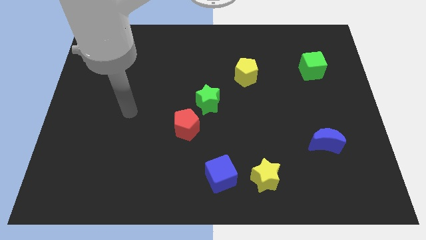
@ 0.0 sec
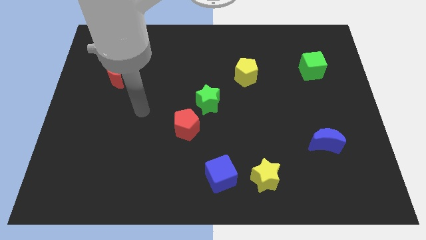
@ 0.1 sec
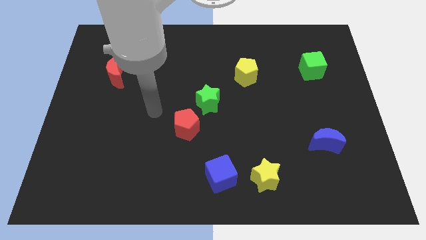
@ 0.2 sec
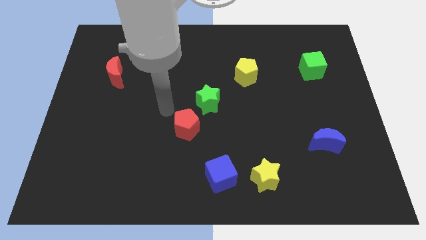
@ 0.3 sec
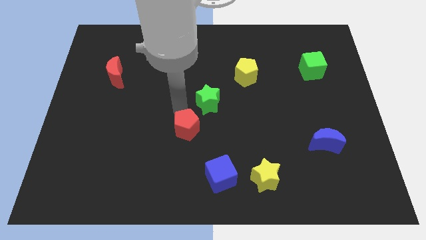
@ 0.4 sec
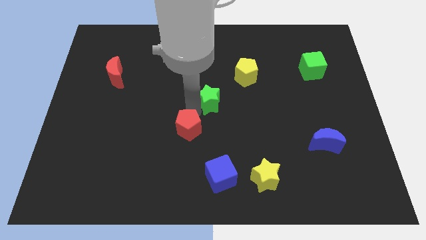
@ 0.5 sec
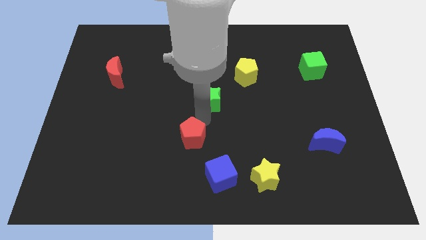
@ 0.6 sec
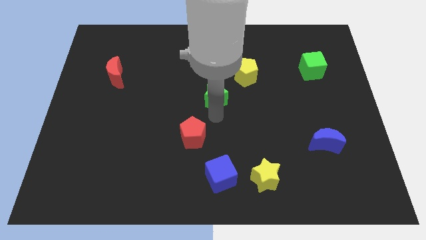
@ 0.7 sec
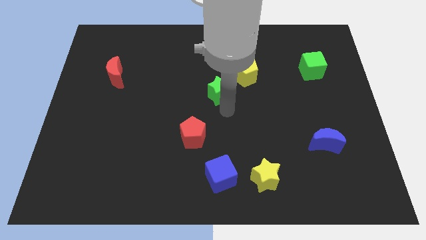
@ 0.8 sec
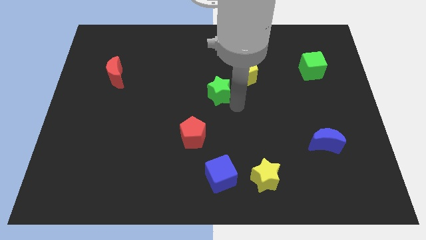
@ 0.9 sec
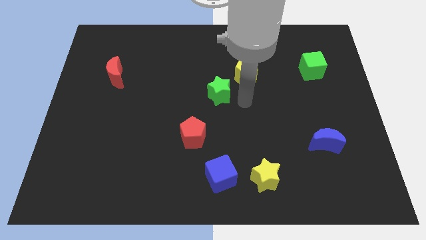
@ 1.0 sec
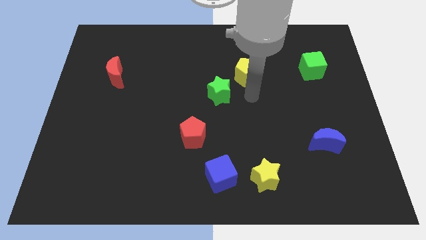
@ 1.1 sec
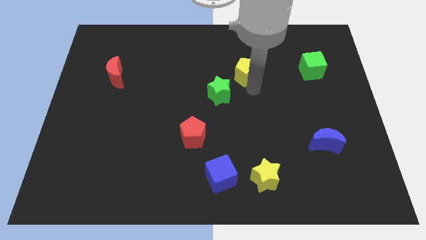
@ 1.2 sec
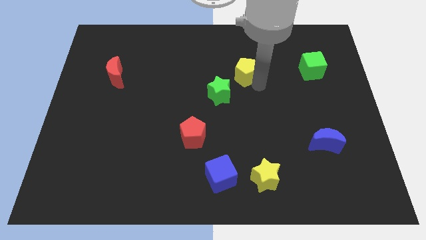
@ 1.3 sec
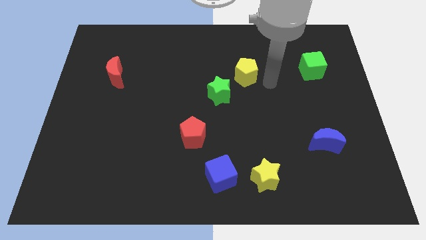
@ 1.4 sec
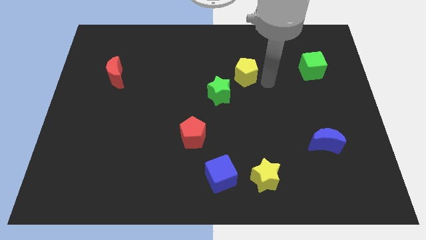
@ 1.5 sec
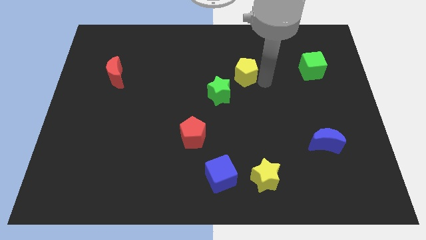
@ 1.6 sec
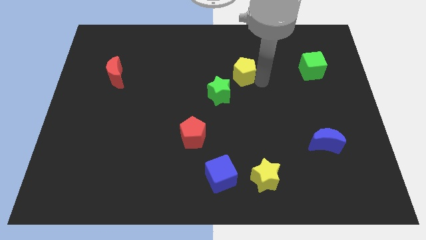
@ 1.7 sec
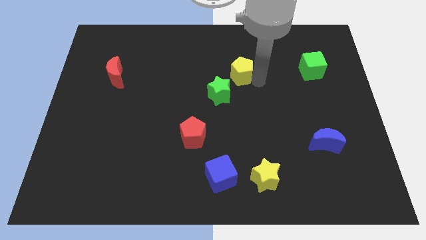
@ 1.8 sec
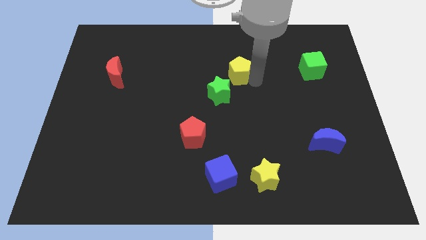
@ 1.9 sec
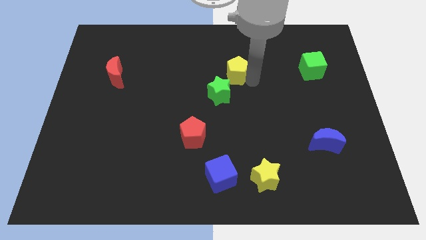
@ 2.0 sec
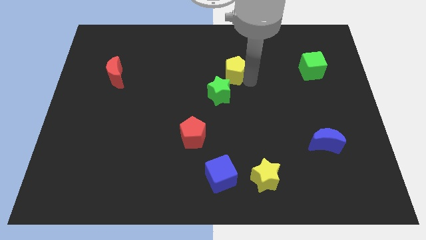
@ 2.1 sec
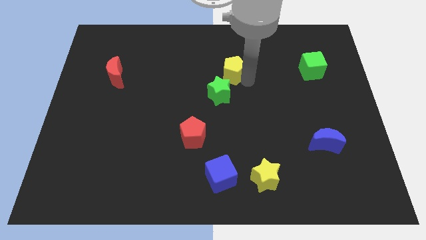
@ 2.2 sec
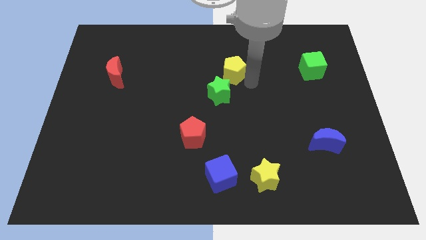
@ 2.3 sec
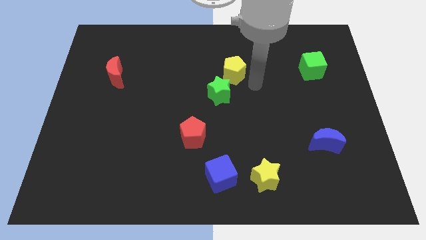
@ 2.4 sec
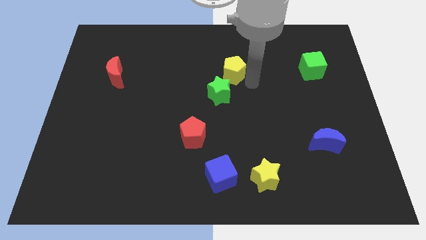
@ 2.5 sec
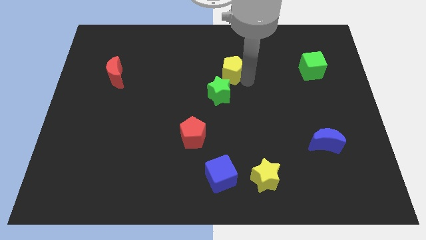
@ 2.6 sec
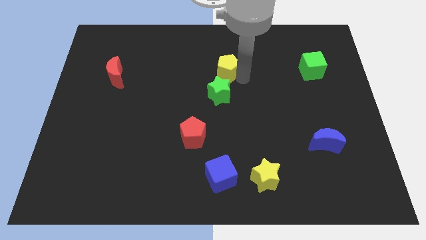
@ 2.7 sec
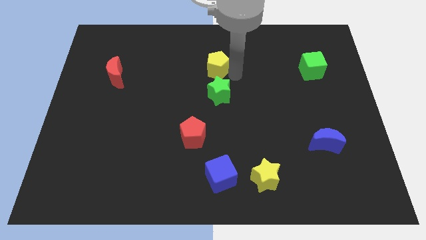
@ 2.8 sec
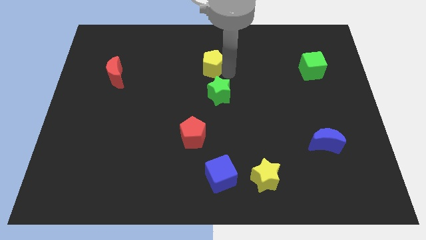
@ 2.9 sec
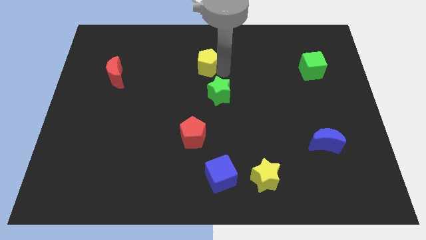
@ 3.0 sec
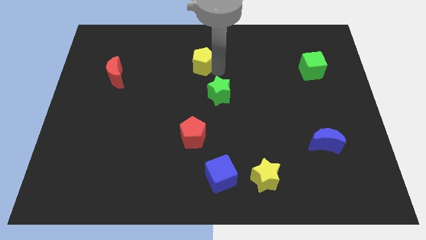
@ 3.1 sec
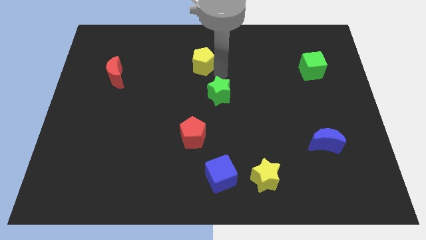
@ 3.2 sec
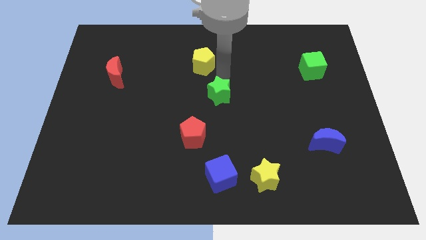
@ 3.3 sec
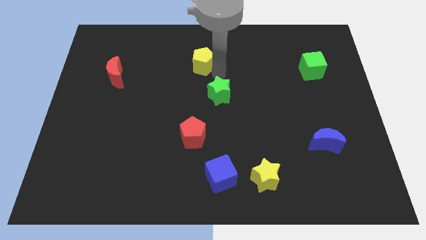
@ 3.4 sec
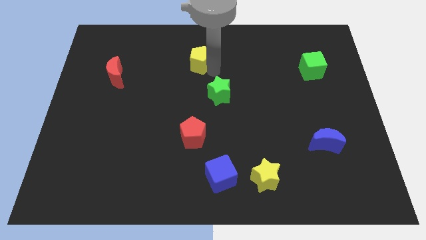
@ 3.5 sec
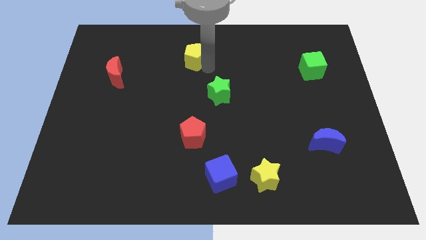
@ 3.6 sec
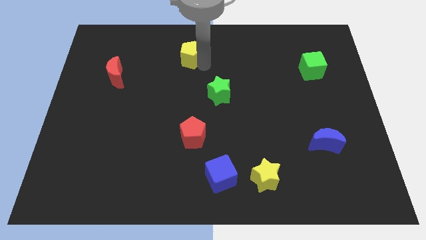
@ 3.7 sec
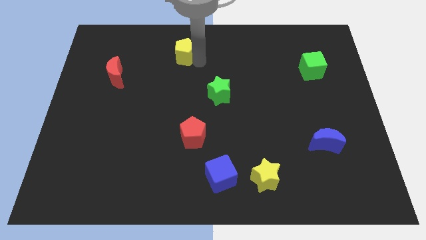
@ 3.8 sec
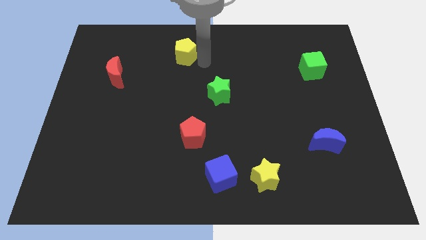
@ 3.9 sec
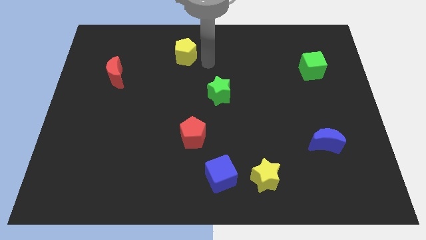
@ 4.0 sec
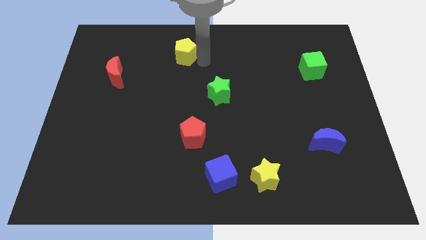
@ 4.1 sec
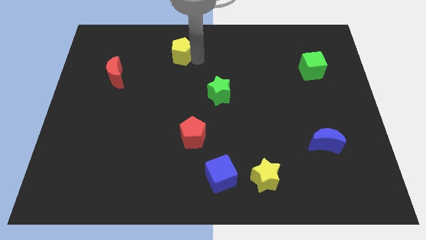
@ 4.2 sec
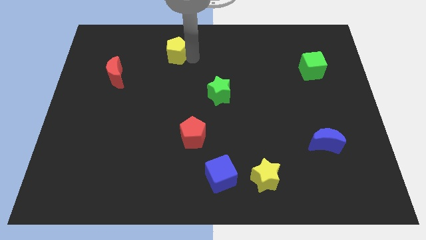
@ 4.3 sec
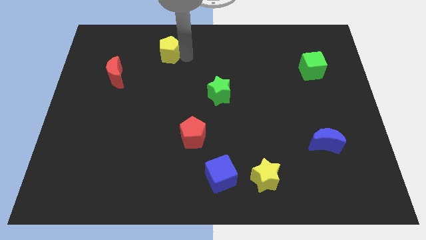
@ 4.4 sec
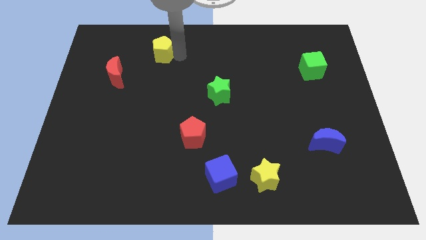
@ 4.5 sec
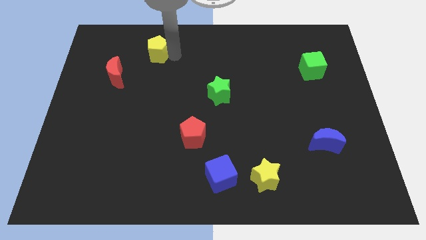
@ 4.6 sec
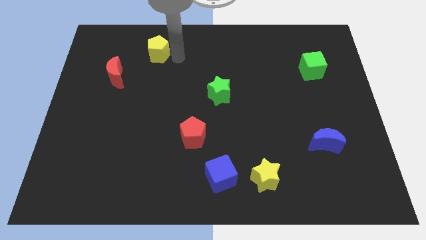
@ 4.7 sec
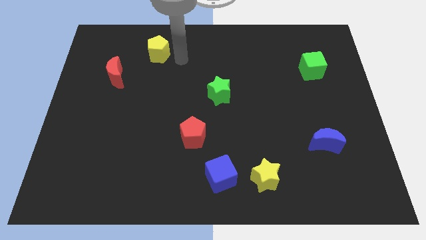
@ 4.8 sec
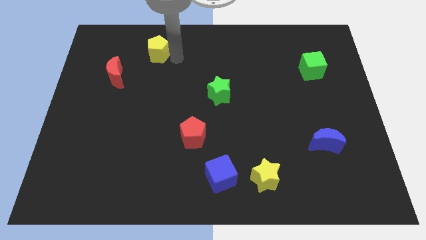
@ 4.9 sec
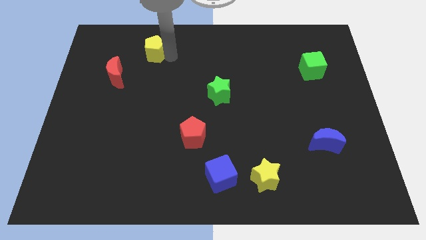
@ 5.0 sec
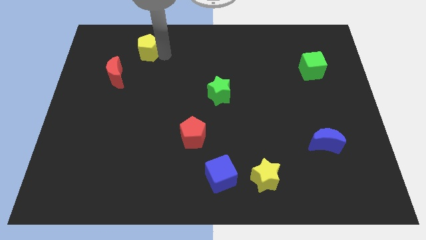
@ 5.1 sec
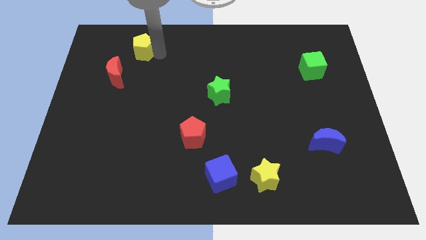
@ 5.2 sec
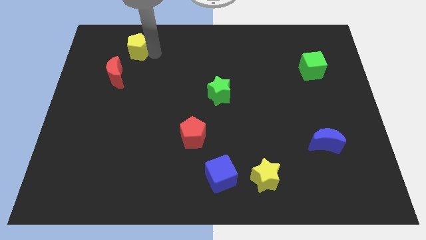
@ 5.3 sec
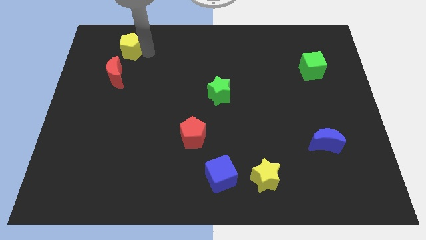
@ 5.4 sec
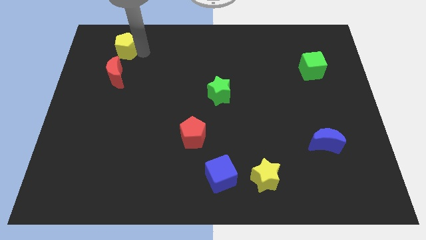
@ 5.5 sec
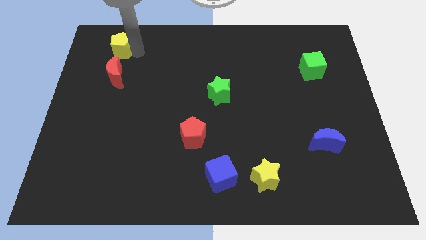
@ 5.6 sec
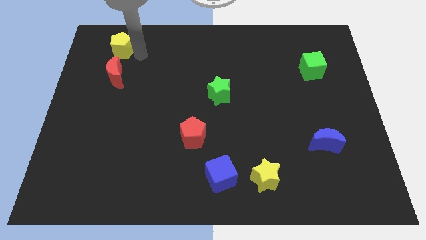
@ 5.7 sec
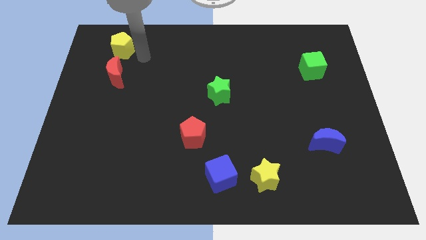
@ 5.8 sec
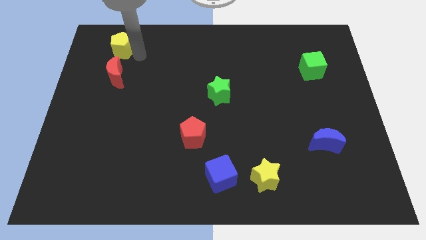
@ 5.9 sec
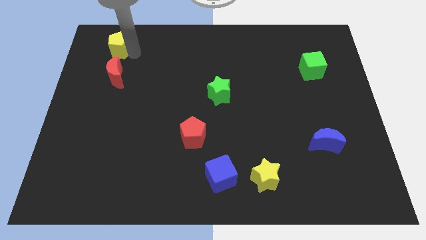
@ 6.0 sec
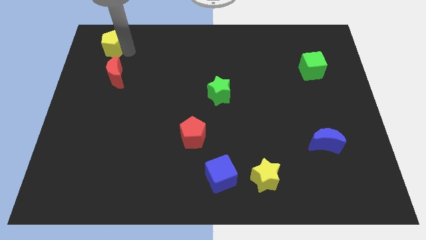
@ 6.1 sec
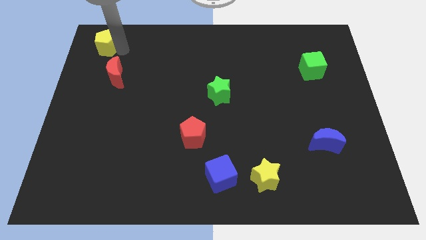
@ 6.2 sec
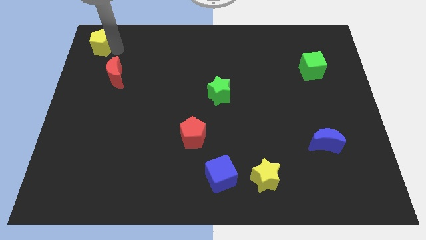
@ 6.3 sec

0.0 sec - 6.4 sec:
put the yellow pentagon to the top left
